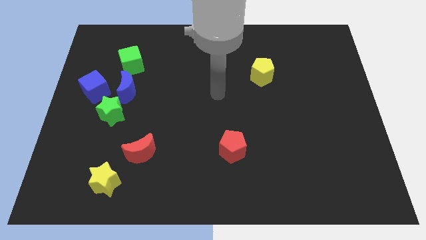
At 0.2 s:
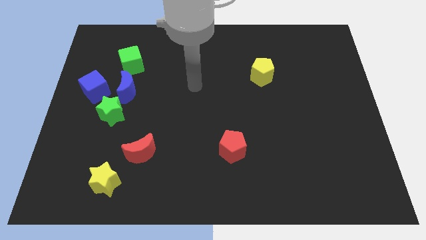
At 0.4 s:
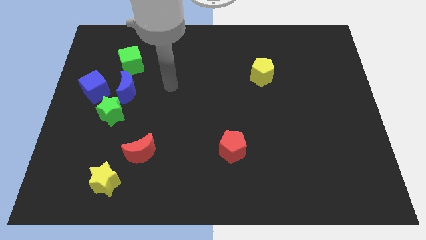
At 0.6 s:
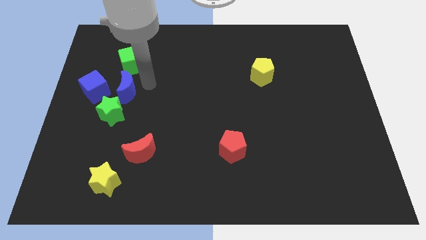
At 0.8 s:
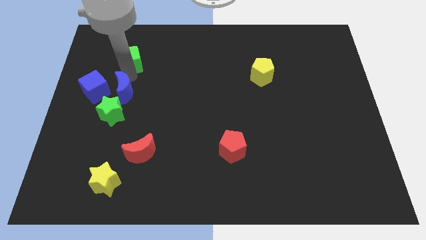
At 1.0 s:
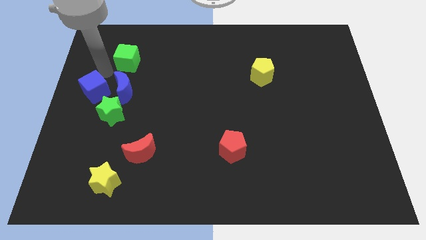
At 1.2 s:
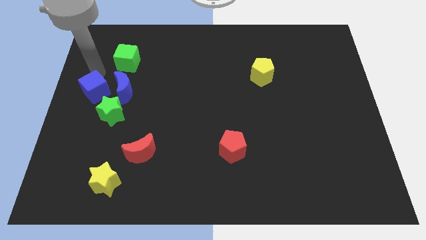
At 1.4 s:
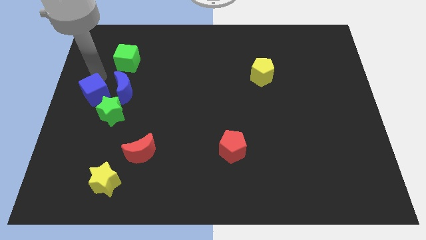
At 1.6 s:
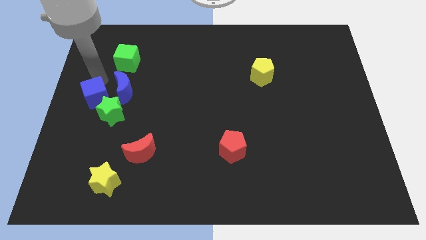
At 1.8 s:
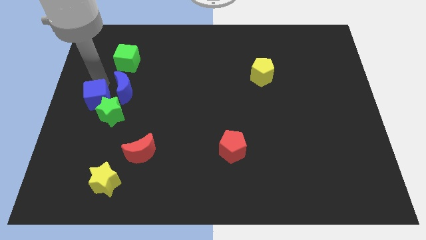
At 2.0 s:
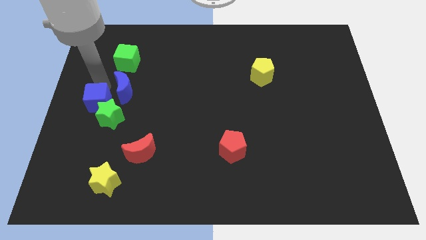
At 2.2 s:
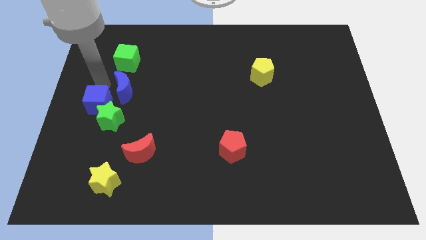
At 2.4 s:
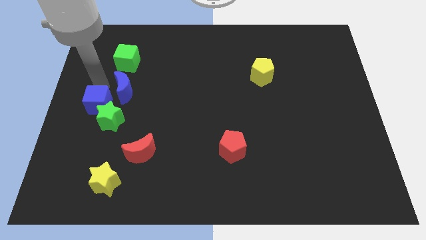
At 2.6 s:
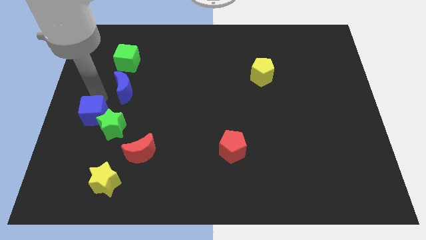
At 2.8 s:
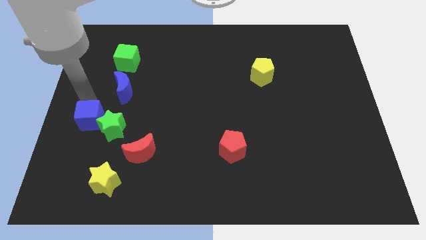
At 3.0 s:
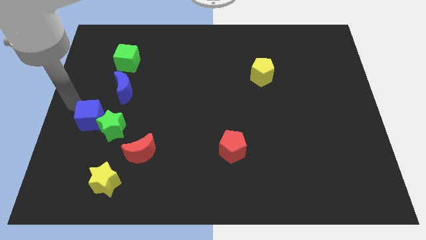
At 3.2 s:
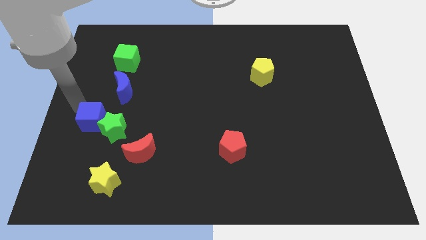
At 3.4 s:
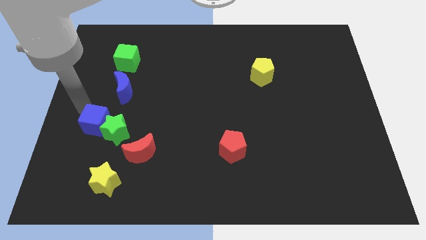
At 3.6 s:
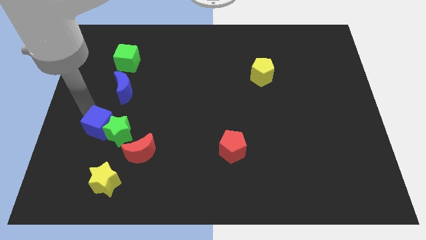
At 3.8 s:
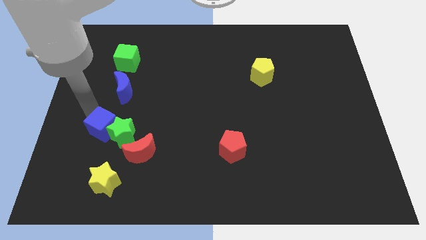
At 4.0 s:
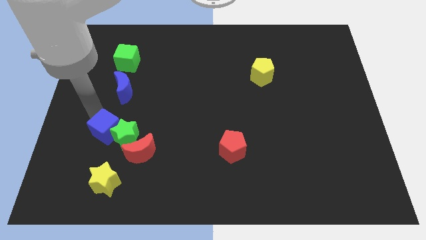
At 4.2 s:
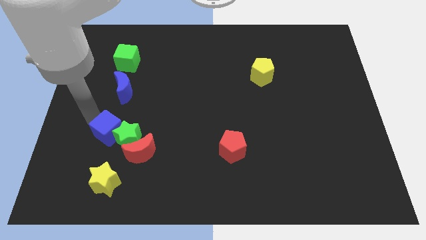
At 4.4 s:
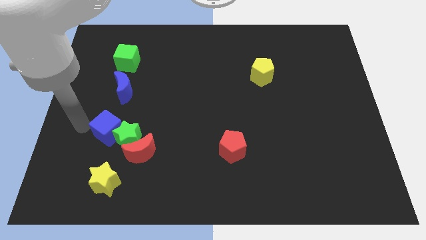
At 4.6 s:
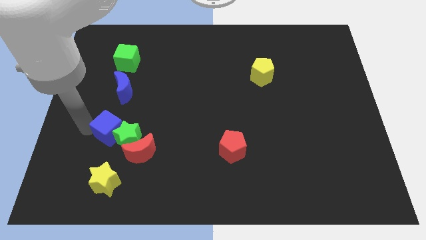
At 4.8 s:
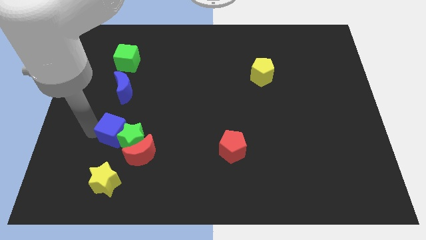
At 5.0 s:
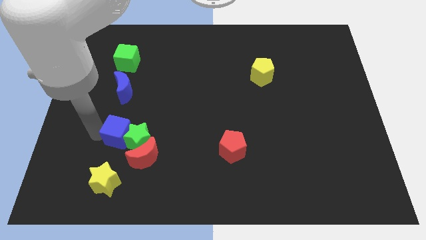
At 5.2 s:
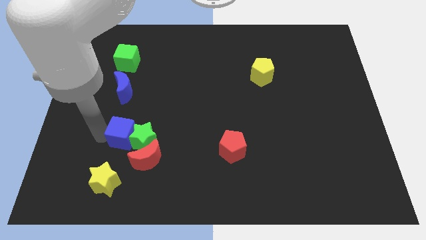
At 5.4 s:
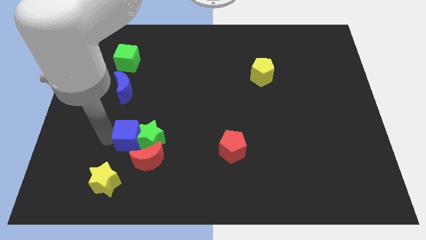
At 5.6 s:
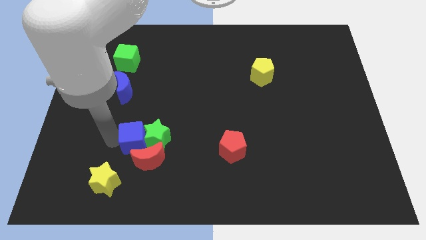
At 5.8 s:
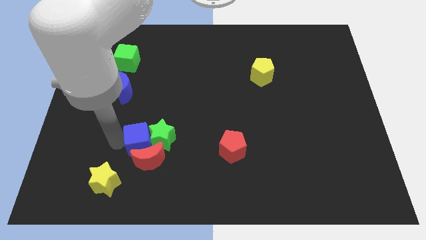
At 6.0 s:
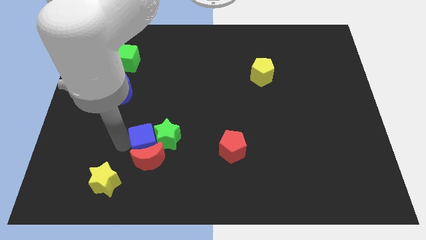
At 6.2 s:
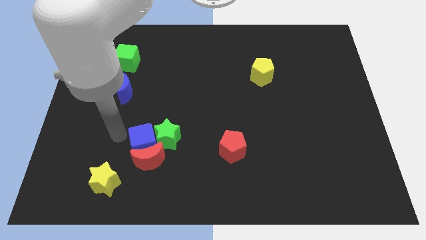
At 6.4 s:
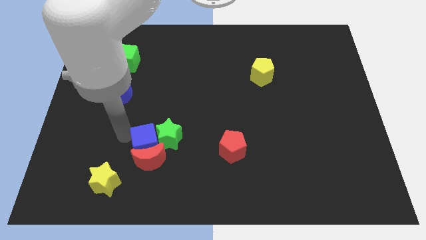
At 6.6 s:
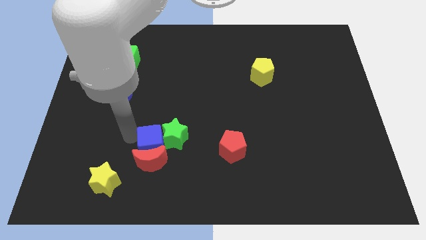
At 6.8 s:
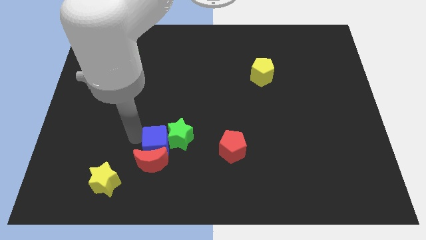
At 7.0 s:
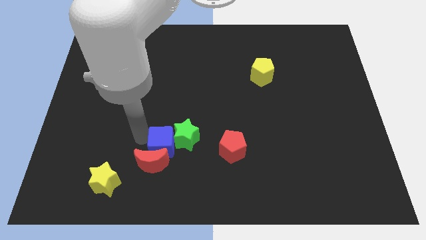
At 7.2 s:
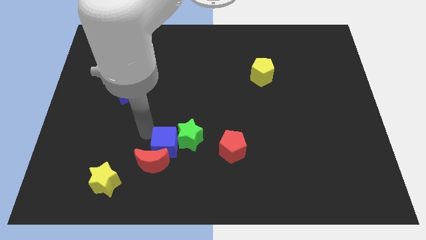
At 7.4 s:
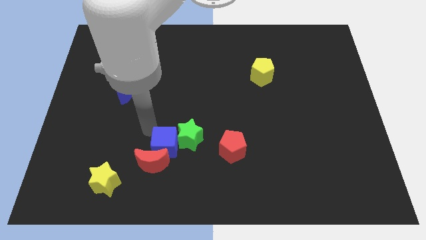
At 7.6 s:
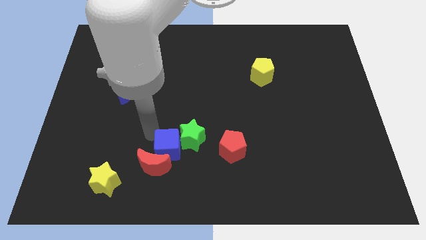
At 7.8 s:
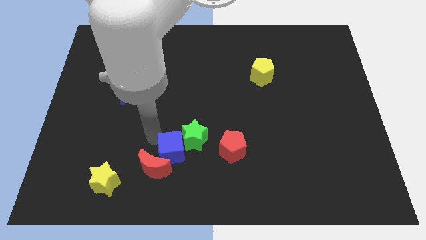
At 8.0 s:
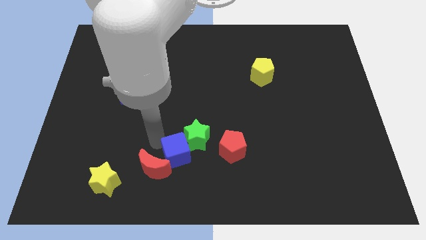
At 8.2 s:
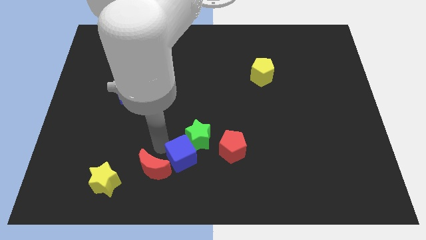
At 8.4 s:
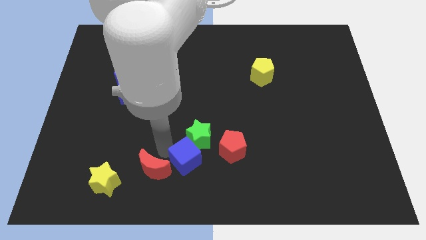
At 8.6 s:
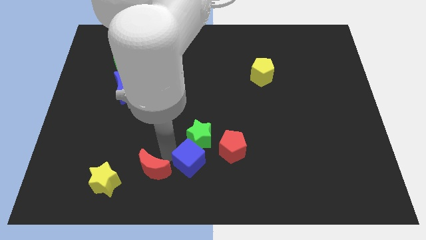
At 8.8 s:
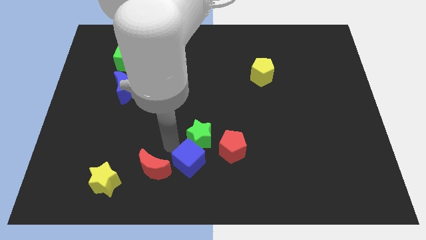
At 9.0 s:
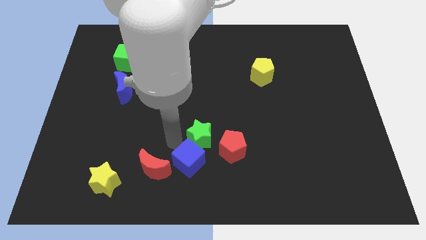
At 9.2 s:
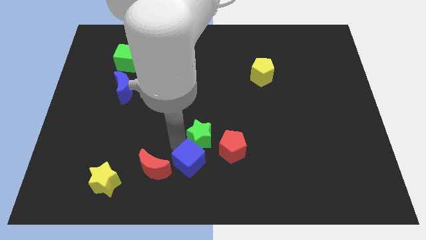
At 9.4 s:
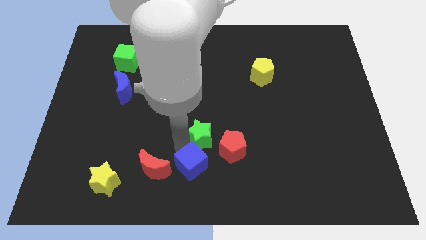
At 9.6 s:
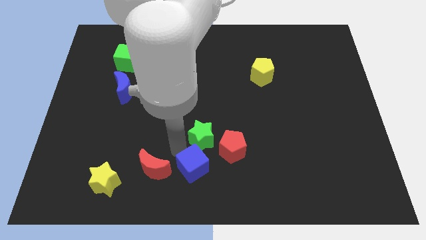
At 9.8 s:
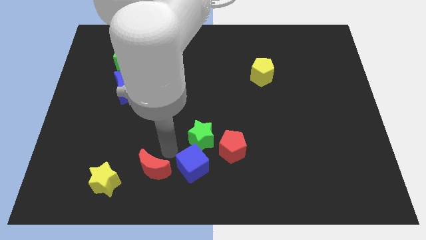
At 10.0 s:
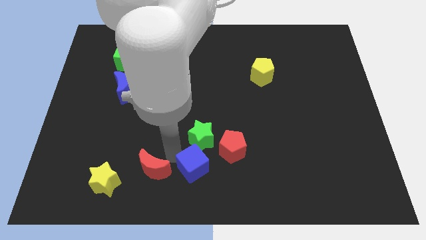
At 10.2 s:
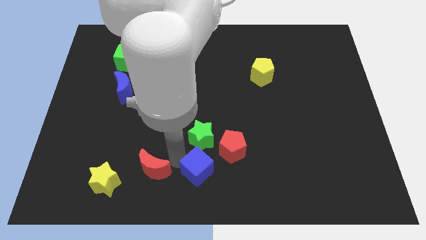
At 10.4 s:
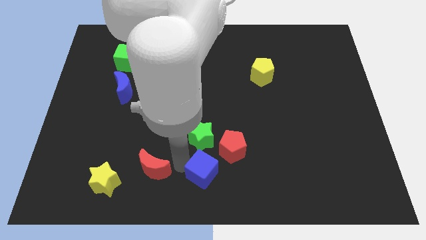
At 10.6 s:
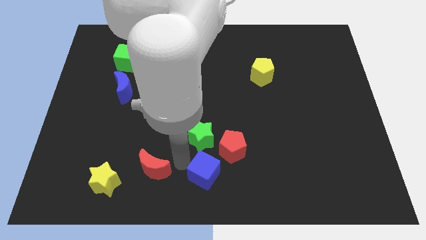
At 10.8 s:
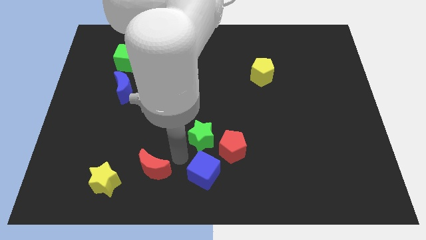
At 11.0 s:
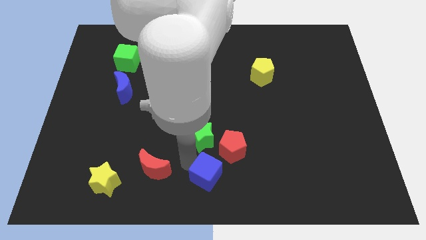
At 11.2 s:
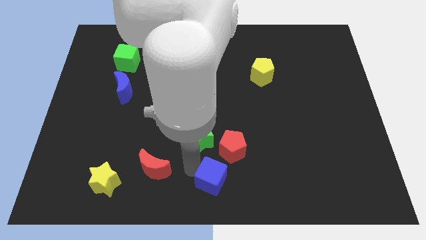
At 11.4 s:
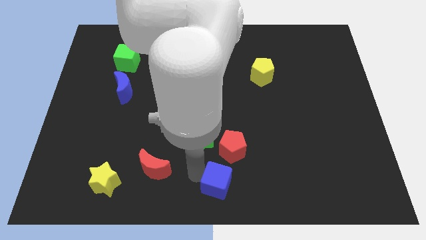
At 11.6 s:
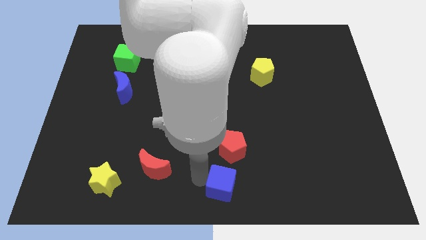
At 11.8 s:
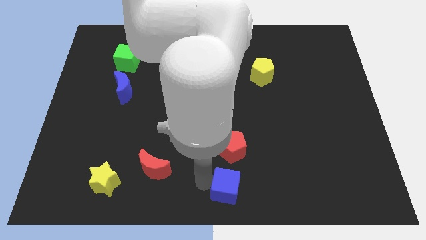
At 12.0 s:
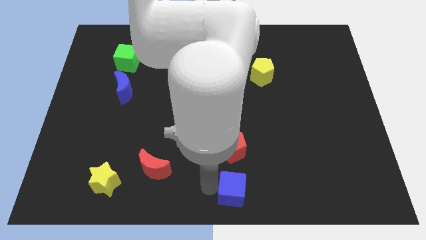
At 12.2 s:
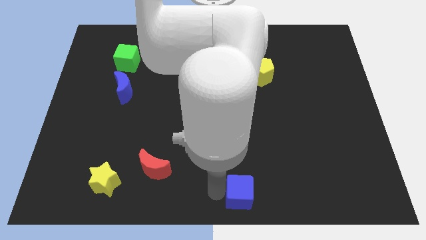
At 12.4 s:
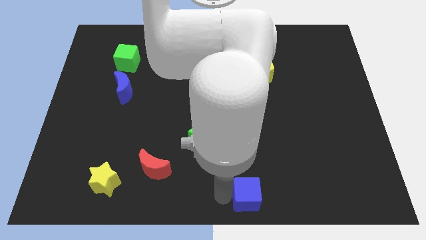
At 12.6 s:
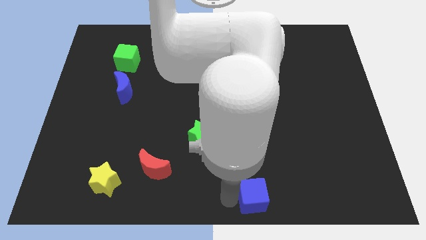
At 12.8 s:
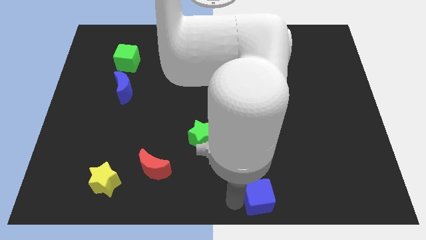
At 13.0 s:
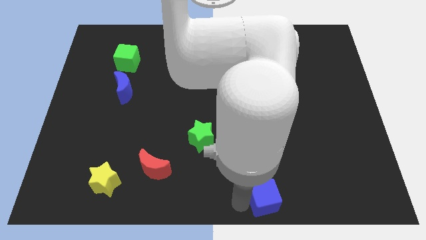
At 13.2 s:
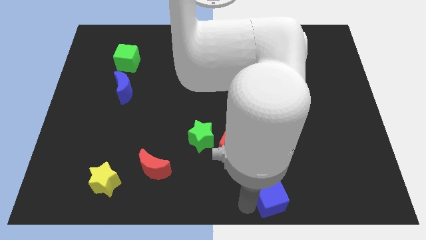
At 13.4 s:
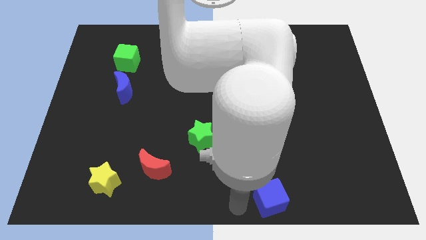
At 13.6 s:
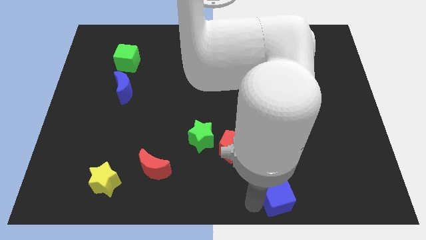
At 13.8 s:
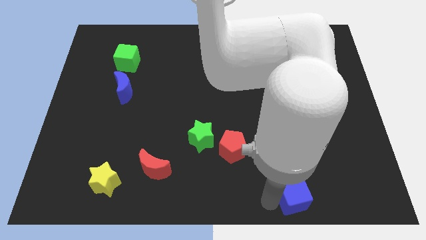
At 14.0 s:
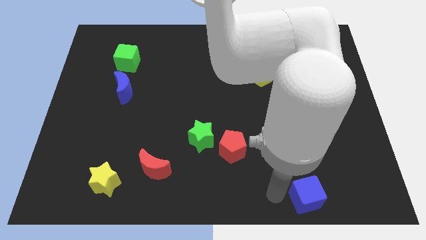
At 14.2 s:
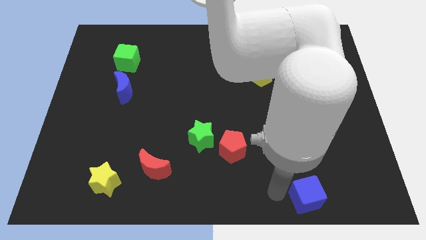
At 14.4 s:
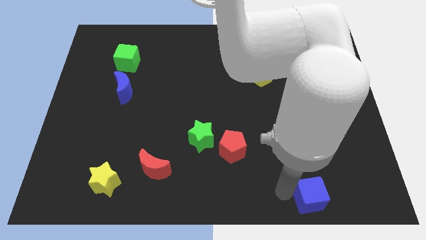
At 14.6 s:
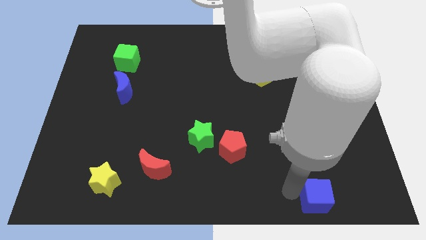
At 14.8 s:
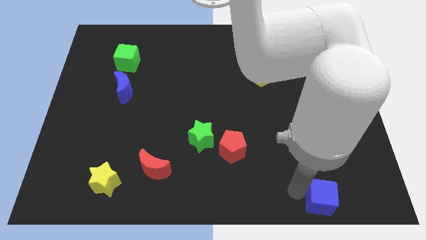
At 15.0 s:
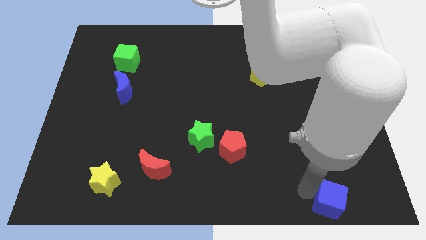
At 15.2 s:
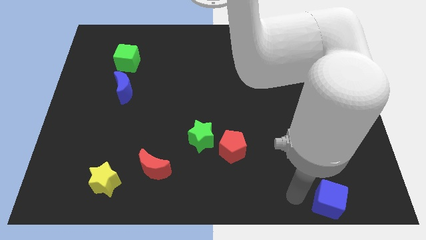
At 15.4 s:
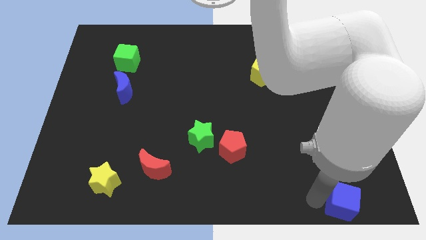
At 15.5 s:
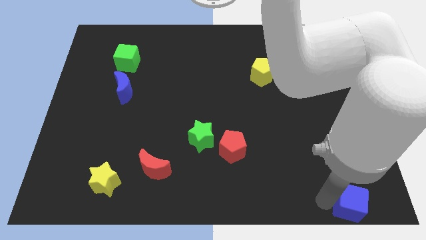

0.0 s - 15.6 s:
put the blue cube to the bottom right corner
